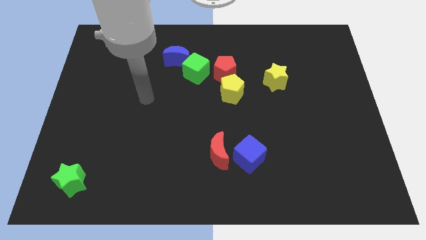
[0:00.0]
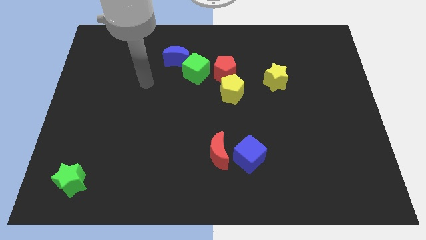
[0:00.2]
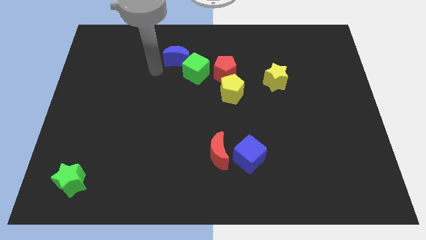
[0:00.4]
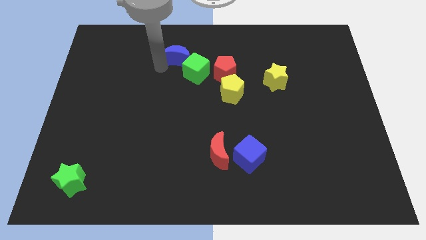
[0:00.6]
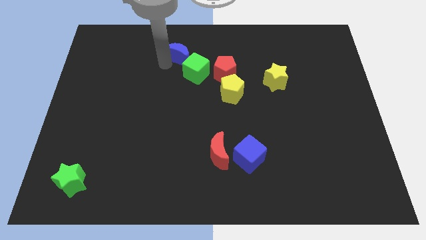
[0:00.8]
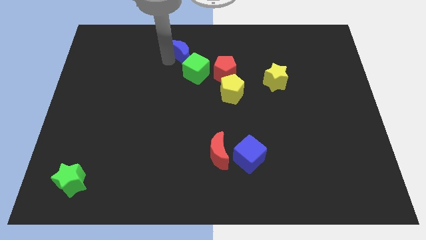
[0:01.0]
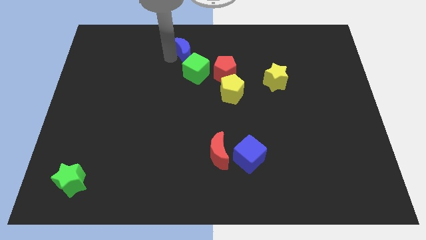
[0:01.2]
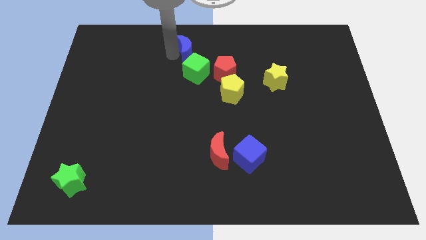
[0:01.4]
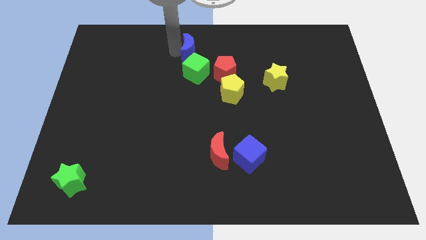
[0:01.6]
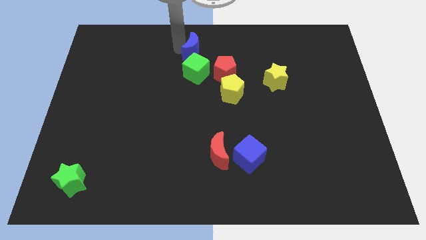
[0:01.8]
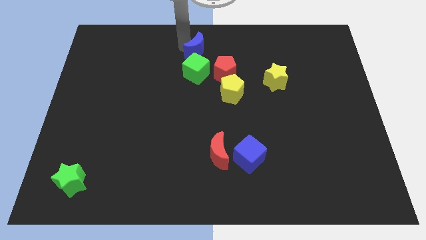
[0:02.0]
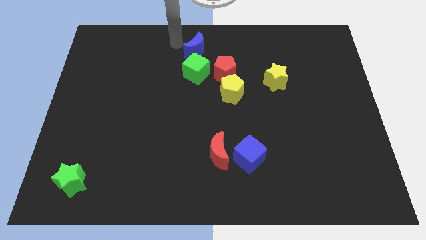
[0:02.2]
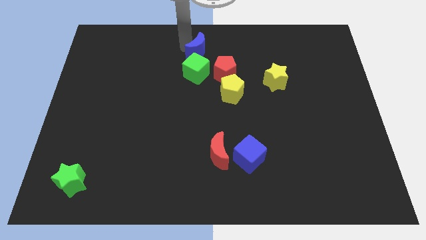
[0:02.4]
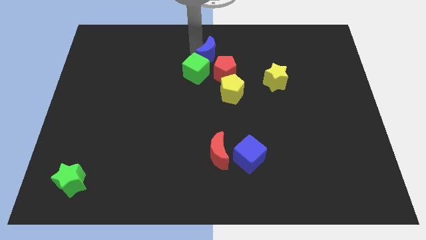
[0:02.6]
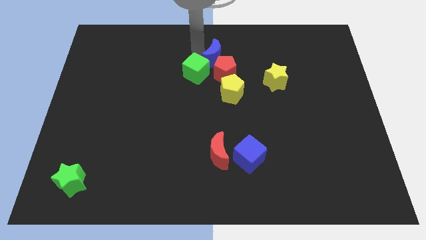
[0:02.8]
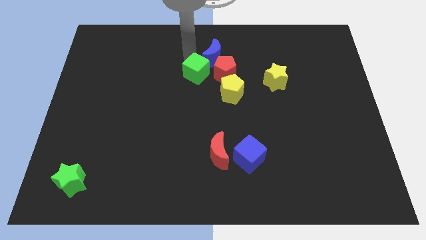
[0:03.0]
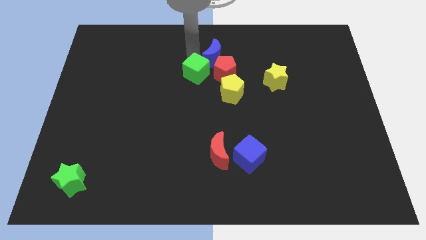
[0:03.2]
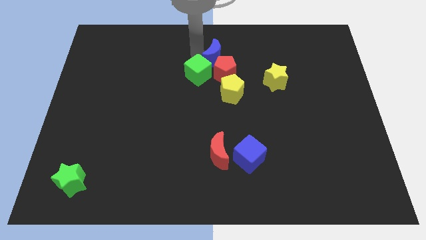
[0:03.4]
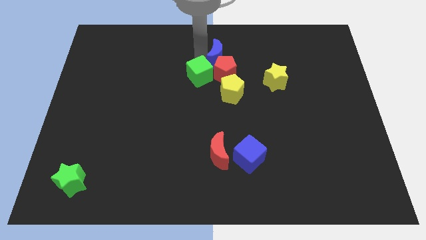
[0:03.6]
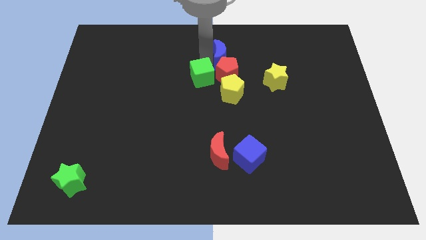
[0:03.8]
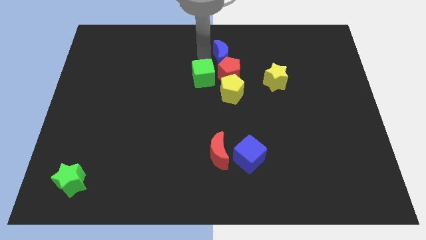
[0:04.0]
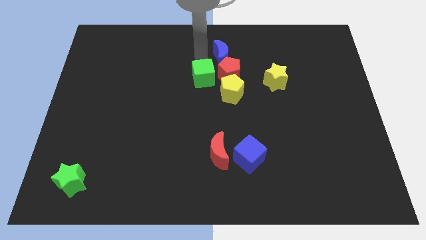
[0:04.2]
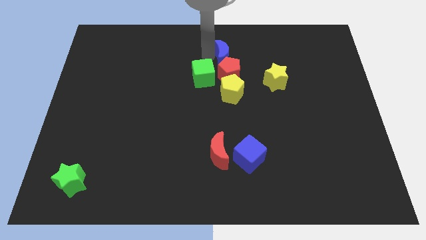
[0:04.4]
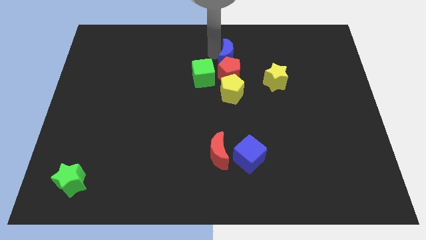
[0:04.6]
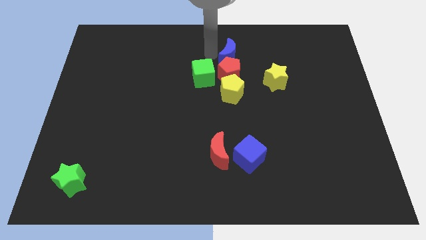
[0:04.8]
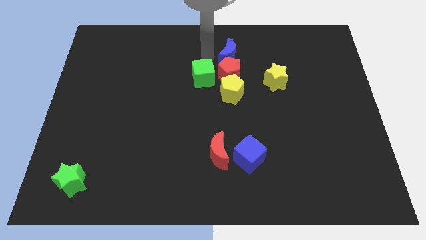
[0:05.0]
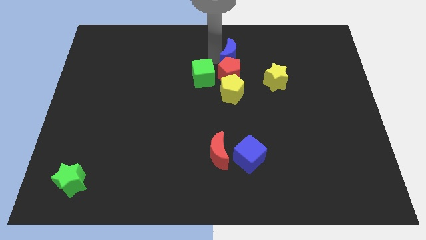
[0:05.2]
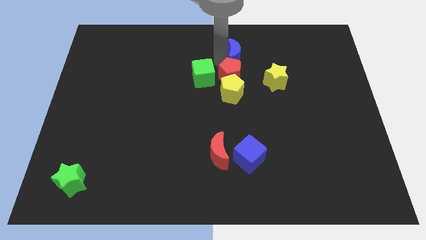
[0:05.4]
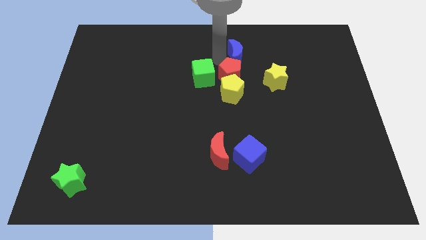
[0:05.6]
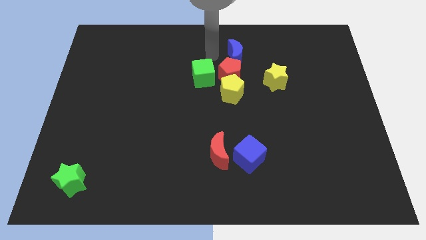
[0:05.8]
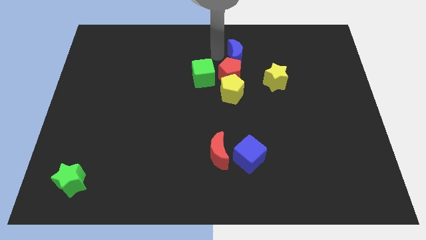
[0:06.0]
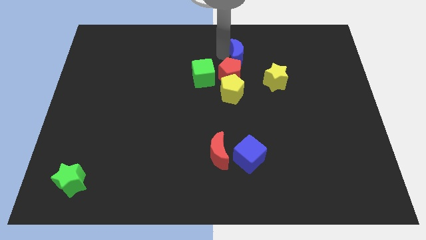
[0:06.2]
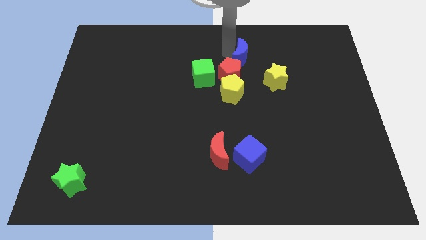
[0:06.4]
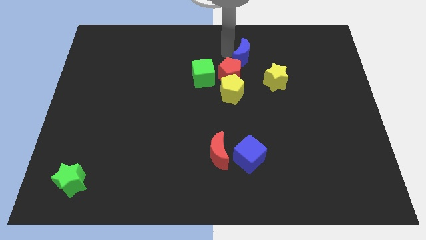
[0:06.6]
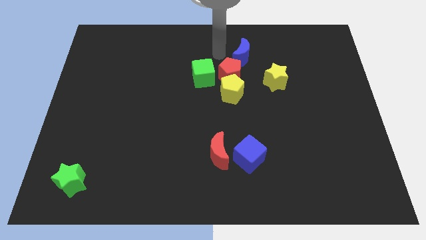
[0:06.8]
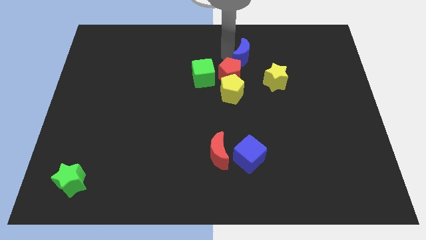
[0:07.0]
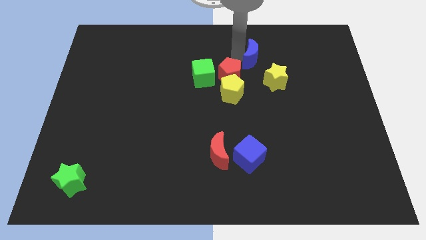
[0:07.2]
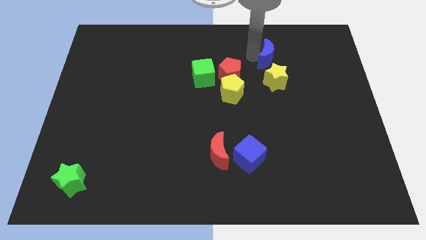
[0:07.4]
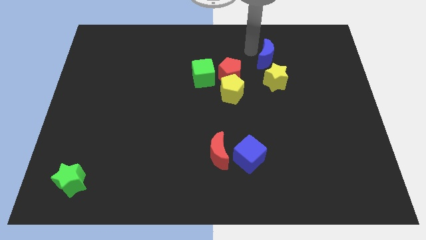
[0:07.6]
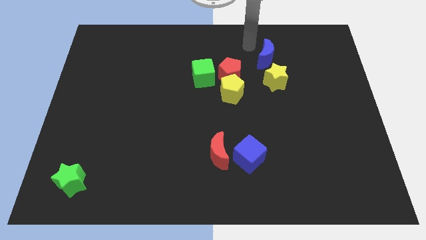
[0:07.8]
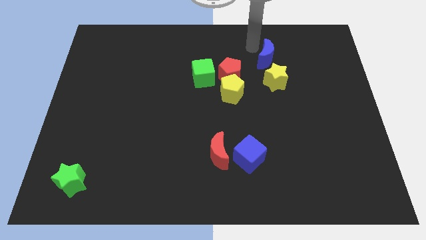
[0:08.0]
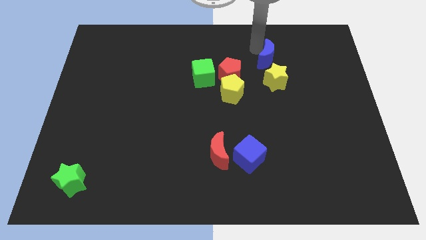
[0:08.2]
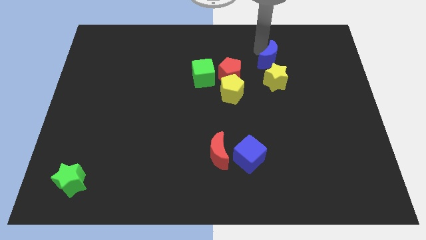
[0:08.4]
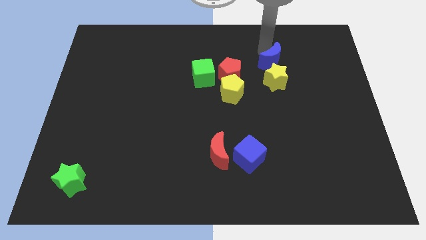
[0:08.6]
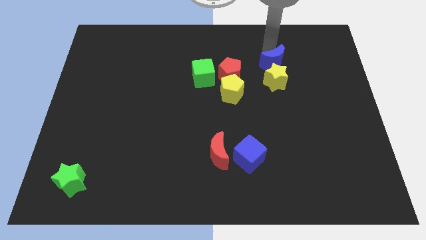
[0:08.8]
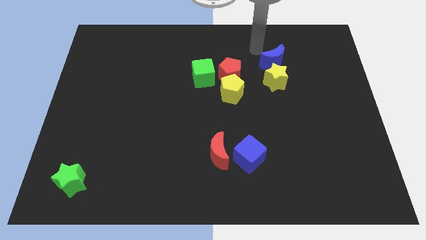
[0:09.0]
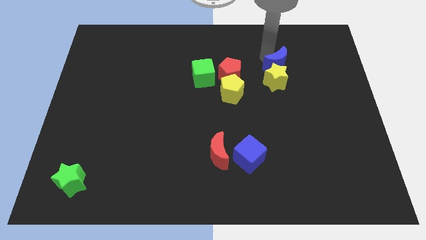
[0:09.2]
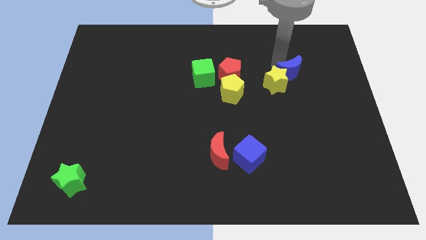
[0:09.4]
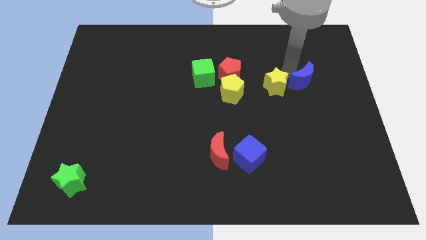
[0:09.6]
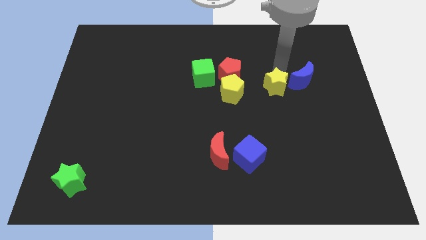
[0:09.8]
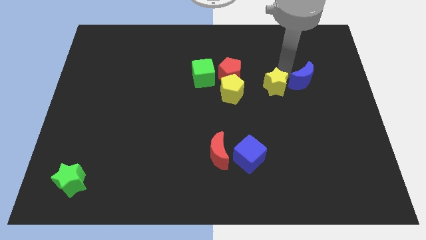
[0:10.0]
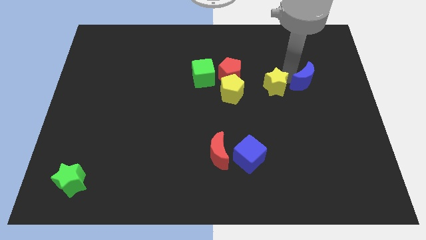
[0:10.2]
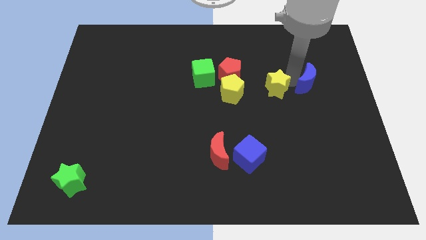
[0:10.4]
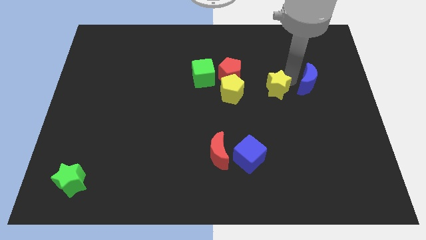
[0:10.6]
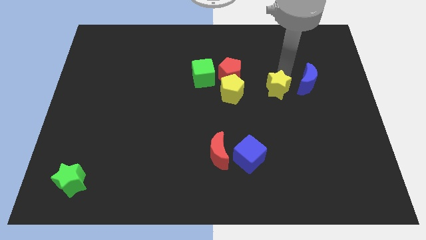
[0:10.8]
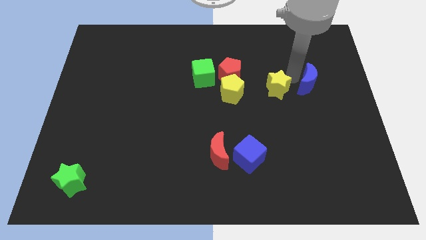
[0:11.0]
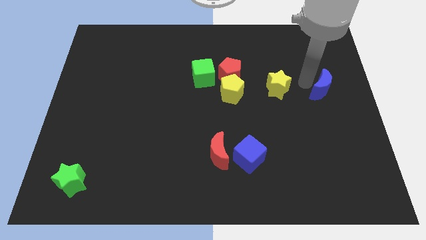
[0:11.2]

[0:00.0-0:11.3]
move the blue moon to the right side of the board

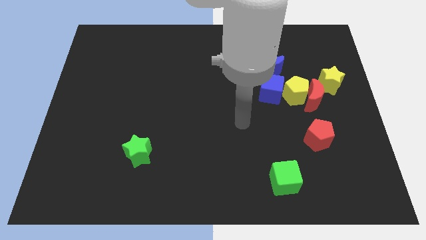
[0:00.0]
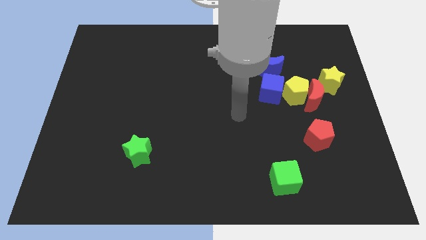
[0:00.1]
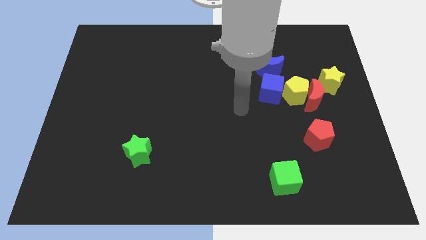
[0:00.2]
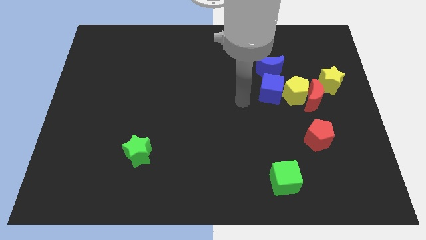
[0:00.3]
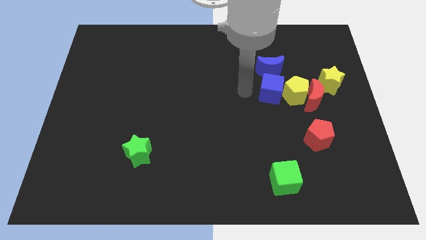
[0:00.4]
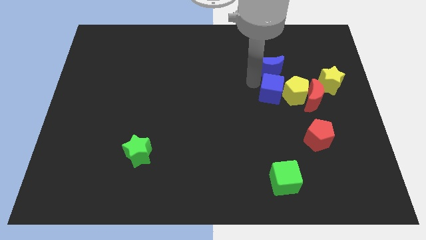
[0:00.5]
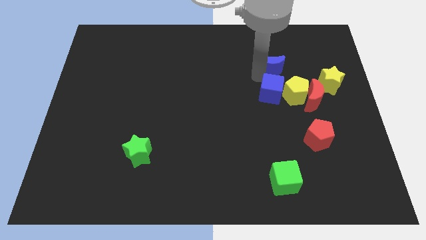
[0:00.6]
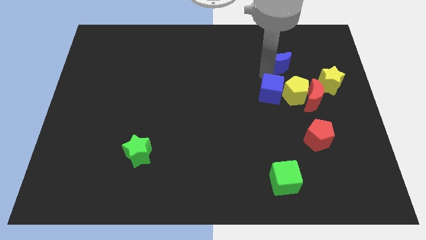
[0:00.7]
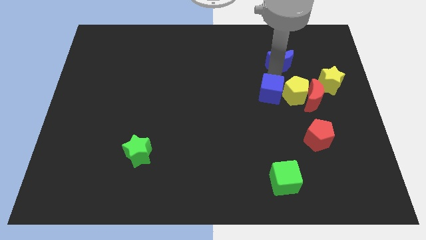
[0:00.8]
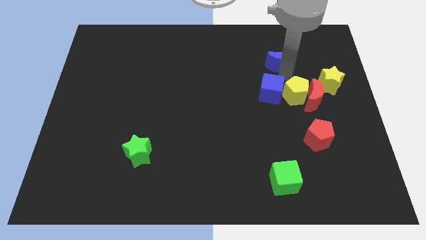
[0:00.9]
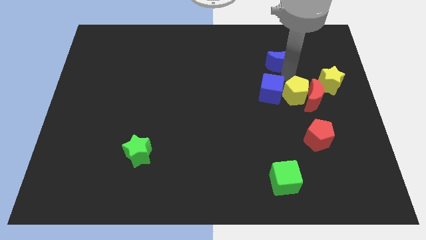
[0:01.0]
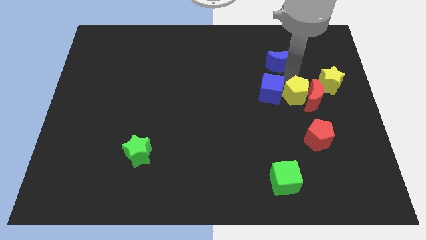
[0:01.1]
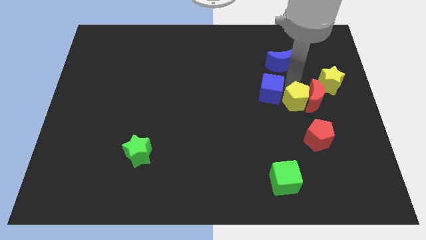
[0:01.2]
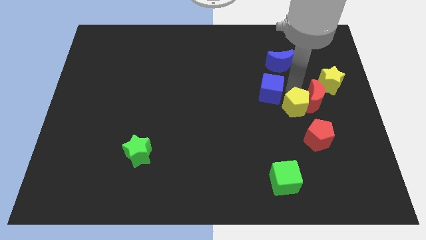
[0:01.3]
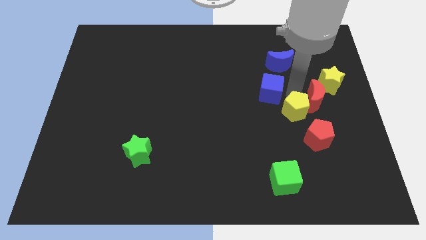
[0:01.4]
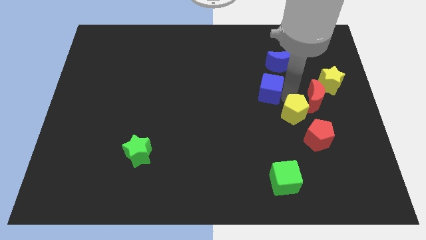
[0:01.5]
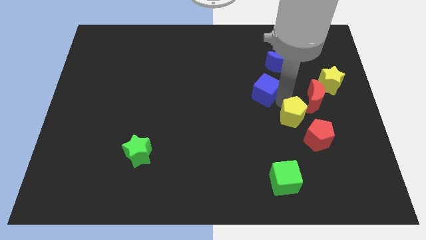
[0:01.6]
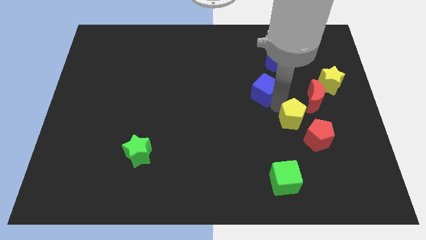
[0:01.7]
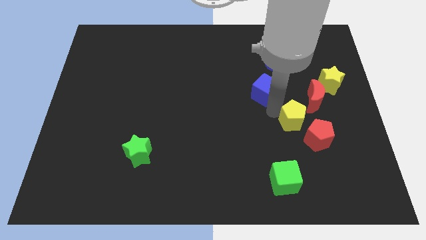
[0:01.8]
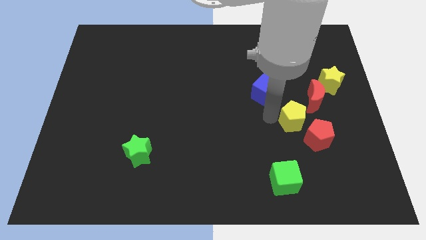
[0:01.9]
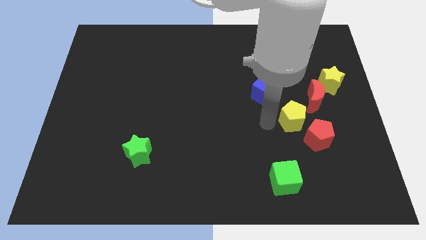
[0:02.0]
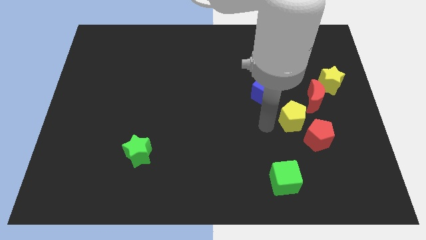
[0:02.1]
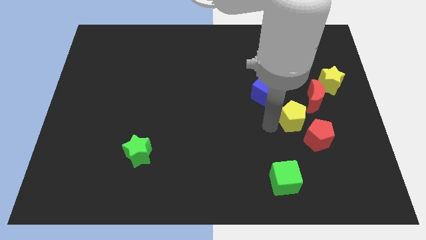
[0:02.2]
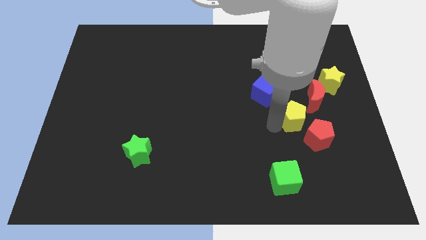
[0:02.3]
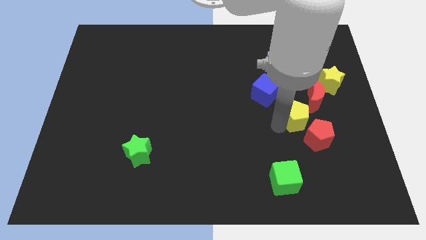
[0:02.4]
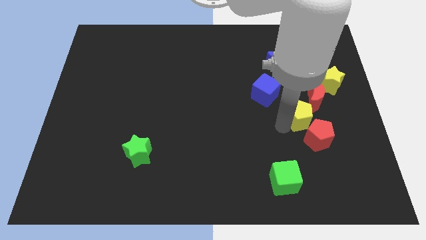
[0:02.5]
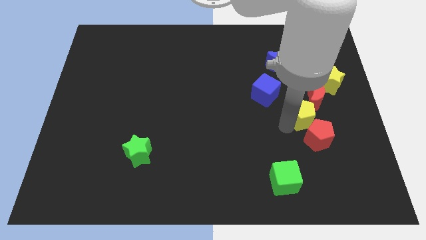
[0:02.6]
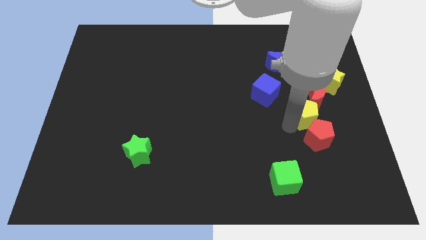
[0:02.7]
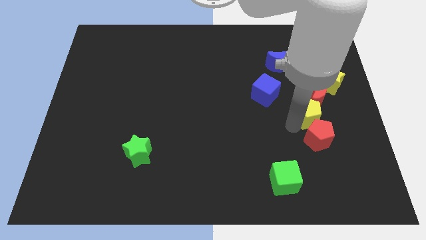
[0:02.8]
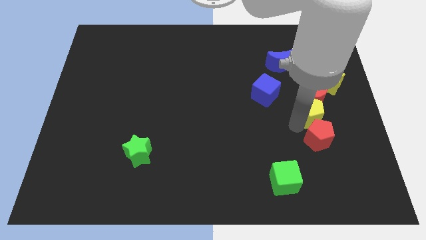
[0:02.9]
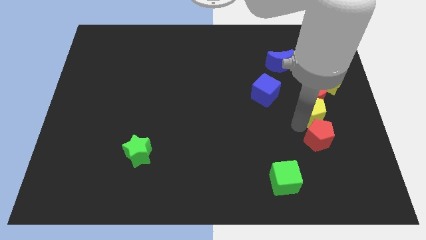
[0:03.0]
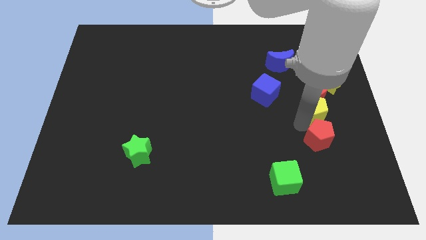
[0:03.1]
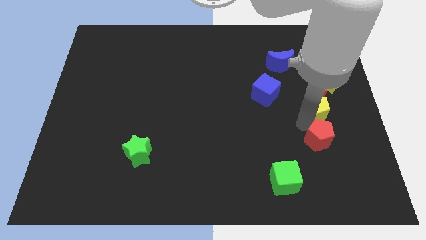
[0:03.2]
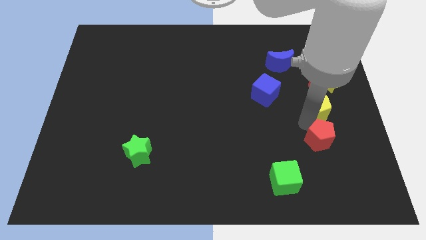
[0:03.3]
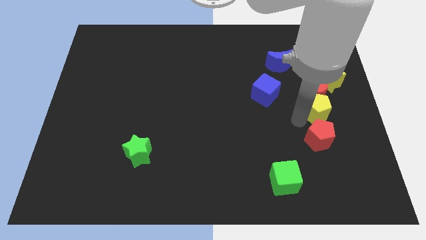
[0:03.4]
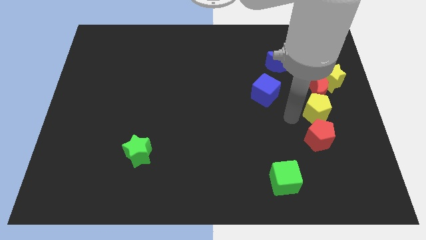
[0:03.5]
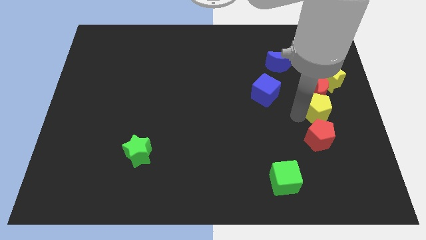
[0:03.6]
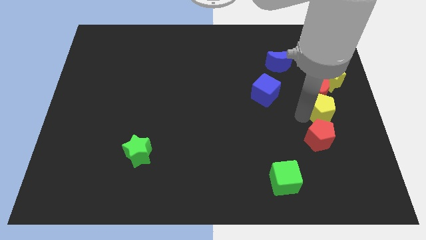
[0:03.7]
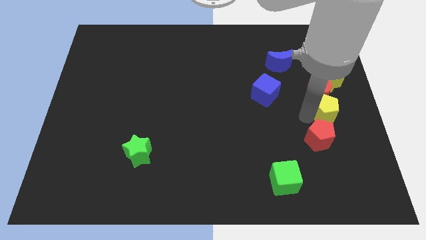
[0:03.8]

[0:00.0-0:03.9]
push the yellow pentagon to the center right
